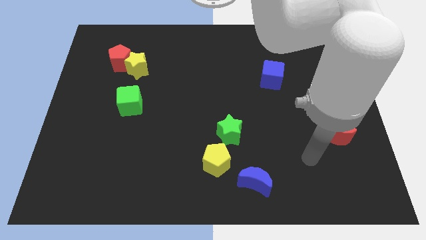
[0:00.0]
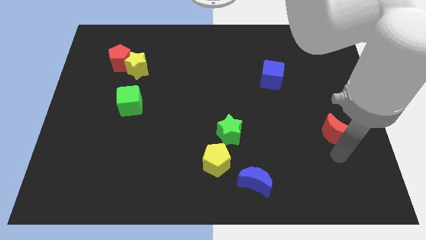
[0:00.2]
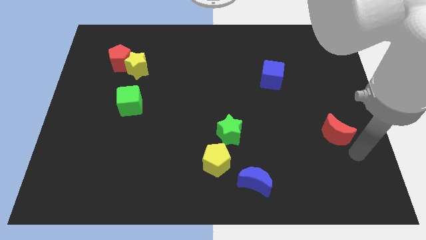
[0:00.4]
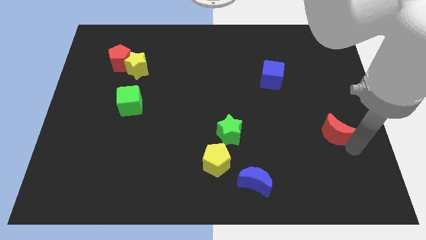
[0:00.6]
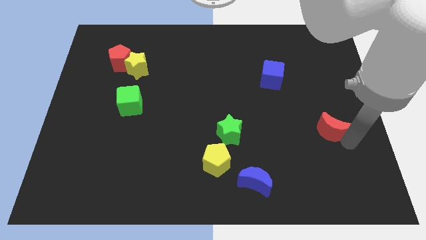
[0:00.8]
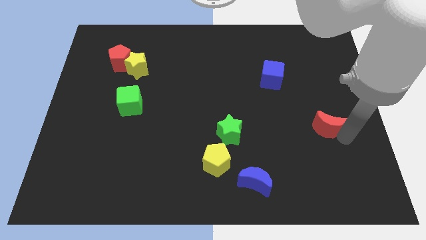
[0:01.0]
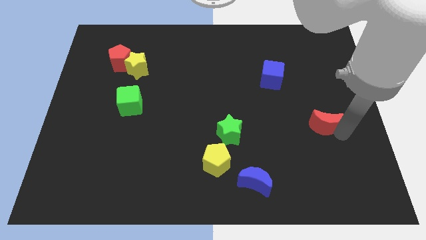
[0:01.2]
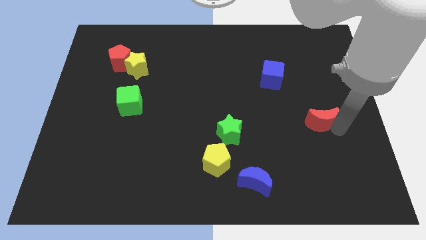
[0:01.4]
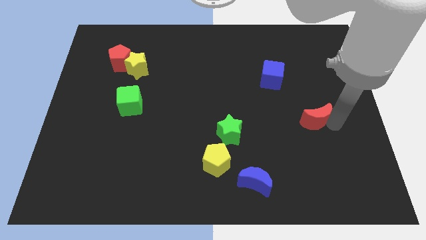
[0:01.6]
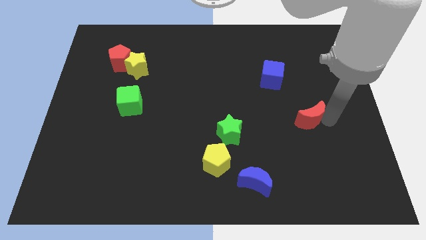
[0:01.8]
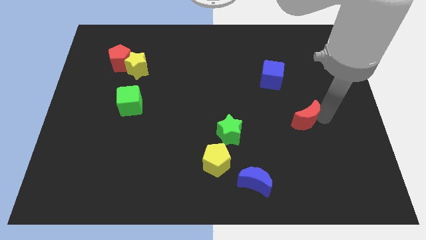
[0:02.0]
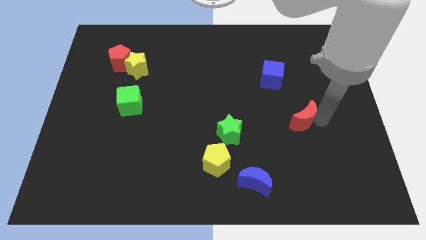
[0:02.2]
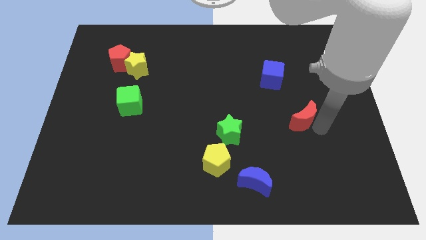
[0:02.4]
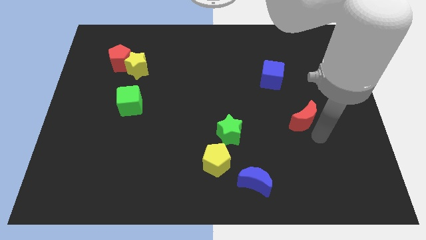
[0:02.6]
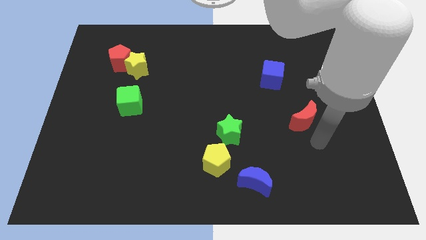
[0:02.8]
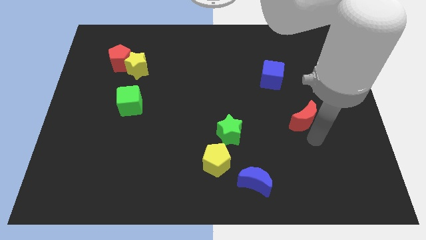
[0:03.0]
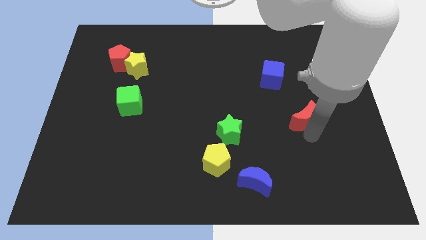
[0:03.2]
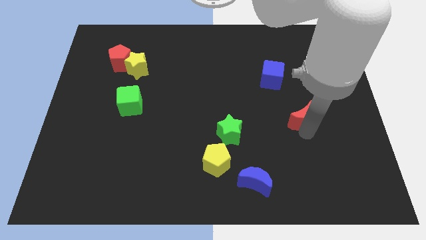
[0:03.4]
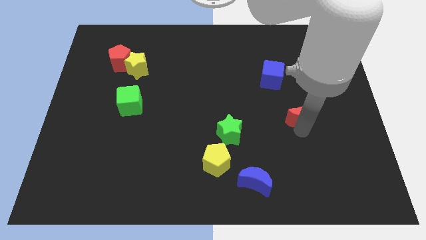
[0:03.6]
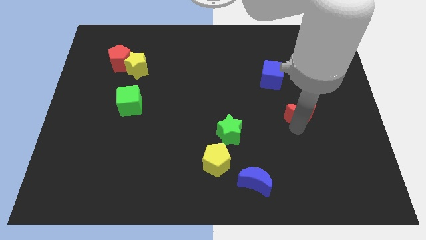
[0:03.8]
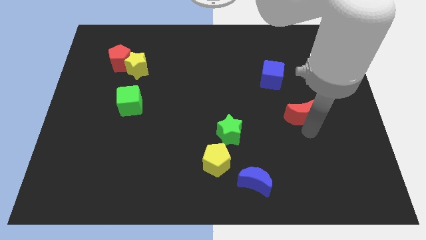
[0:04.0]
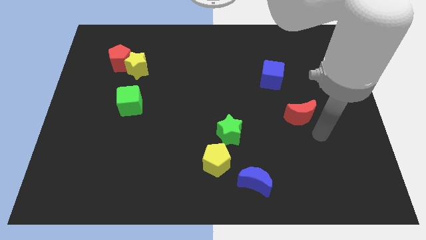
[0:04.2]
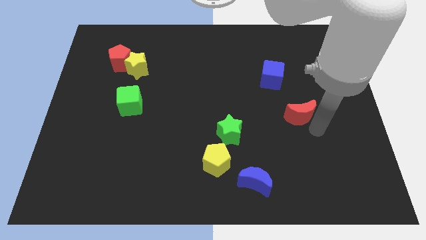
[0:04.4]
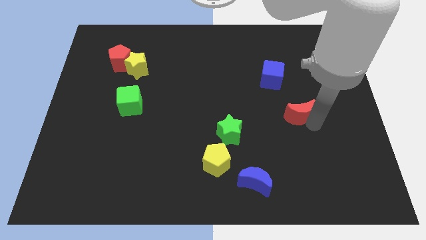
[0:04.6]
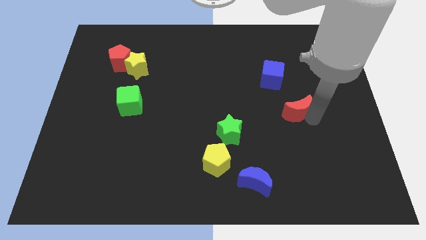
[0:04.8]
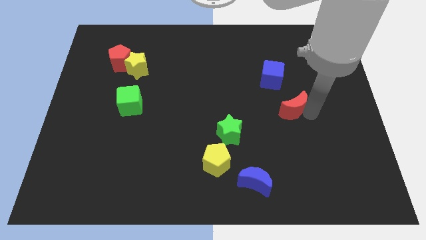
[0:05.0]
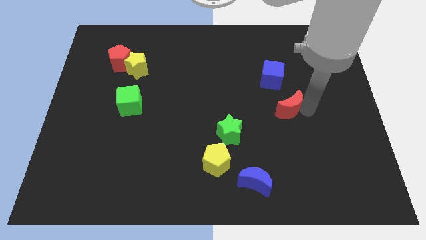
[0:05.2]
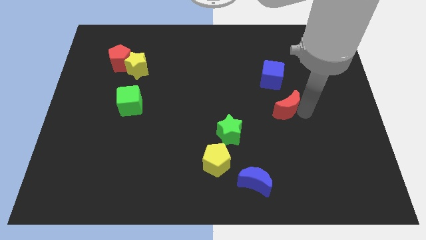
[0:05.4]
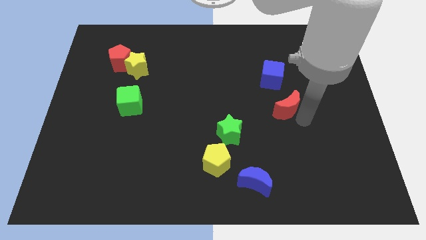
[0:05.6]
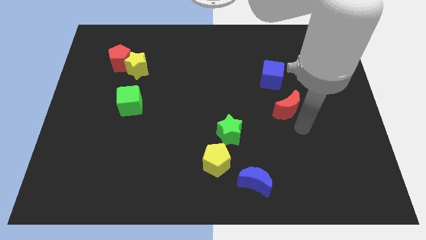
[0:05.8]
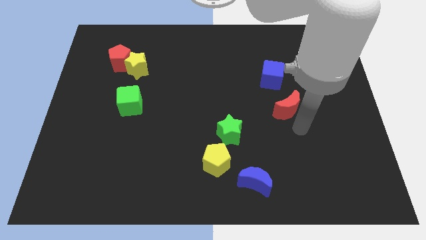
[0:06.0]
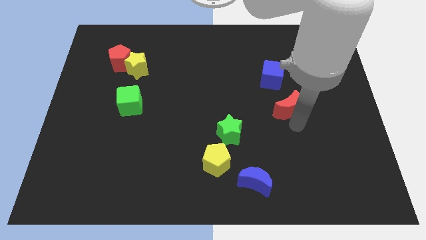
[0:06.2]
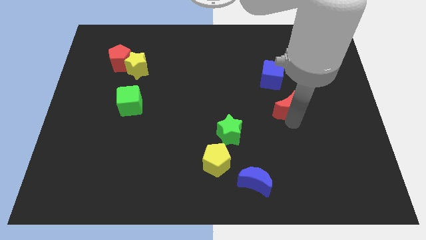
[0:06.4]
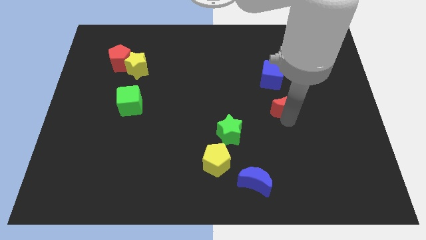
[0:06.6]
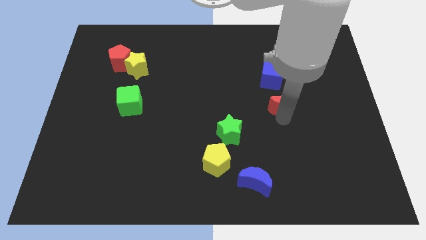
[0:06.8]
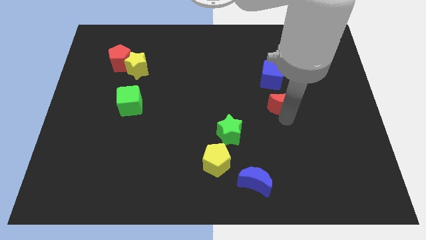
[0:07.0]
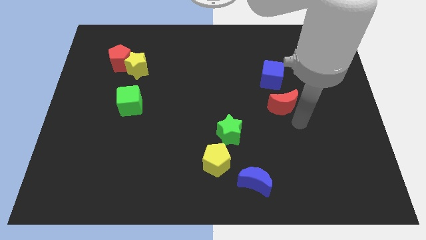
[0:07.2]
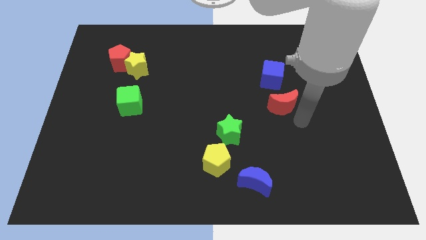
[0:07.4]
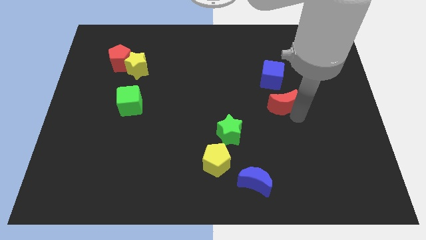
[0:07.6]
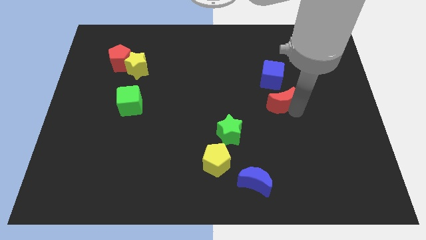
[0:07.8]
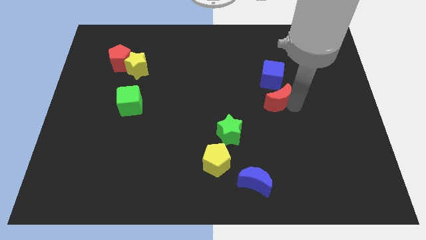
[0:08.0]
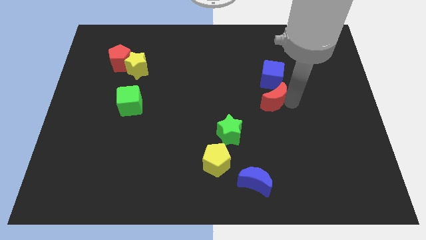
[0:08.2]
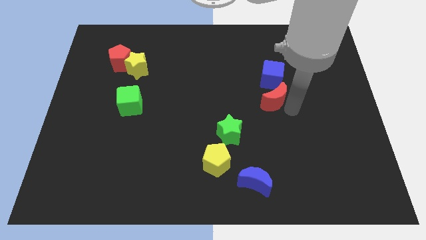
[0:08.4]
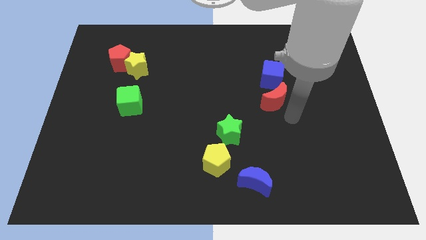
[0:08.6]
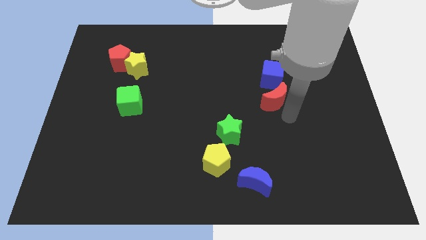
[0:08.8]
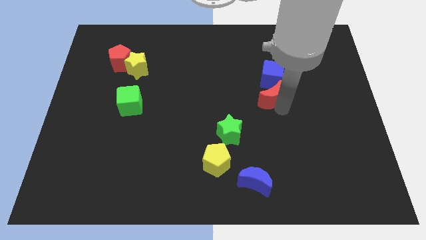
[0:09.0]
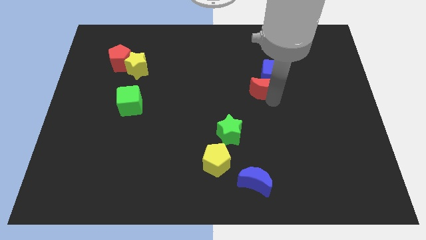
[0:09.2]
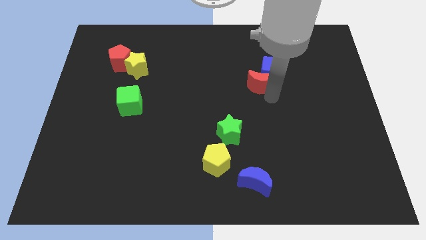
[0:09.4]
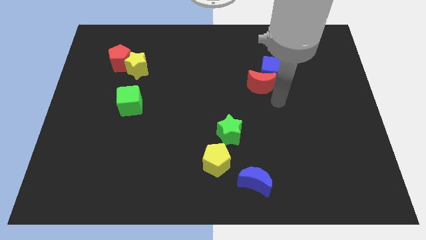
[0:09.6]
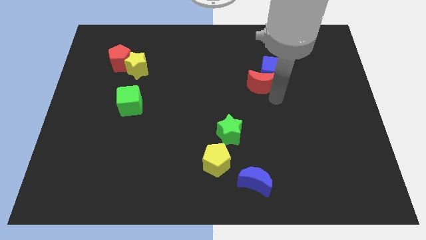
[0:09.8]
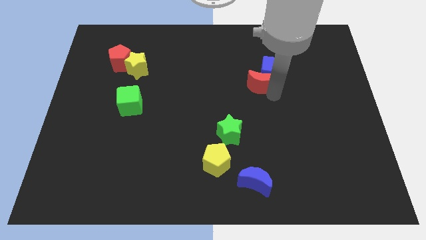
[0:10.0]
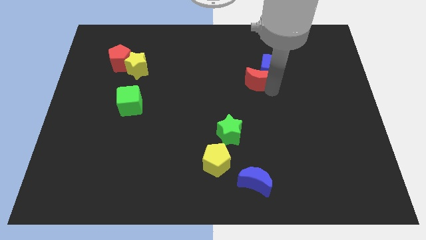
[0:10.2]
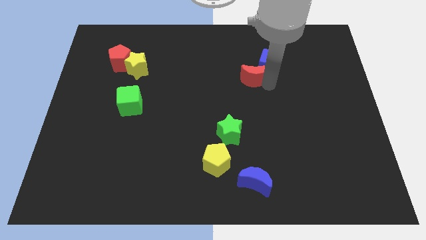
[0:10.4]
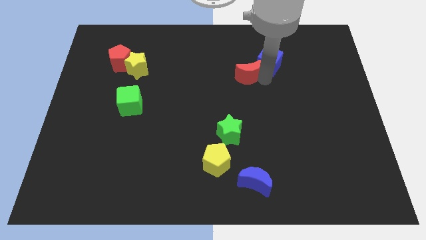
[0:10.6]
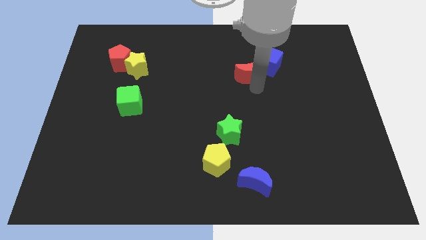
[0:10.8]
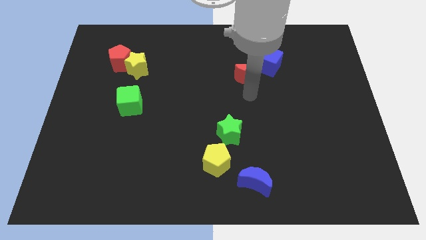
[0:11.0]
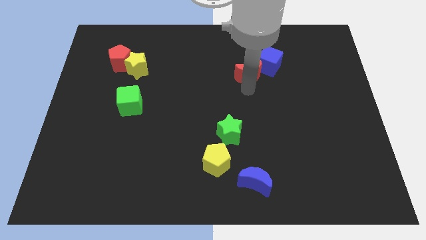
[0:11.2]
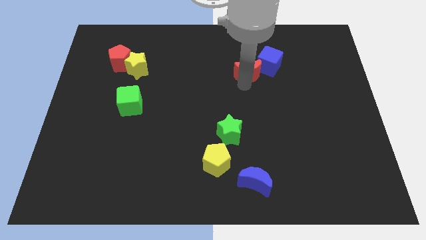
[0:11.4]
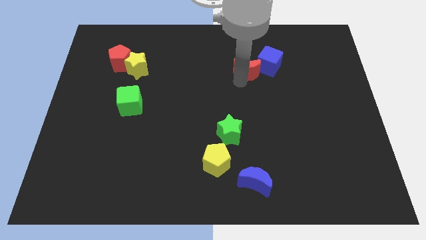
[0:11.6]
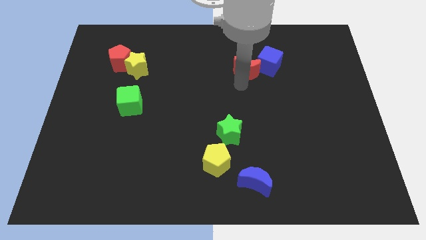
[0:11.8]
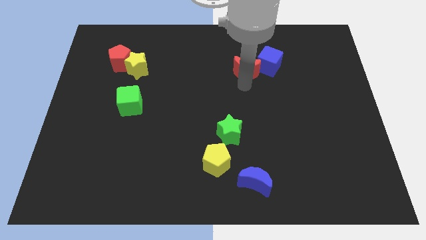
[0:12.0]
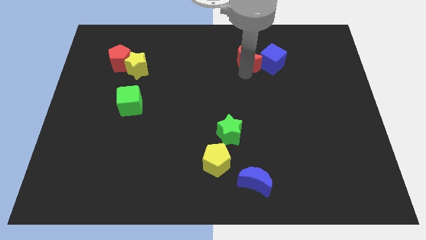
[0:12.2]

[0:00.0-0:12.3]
move the red moon to the top left of the blue cube

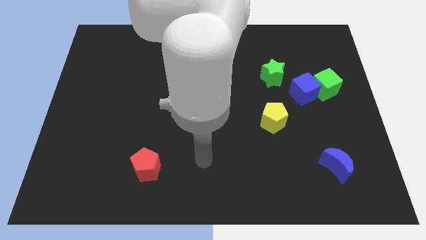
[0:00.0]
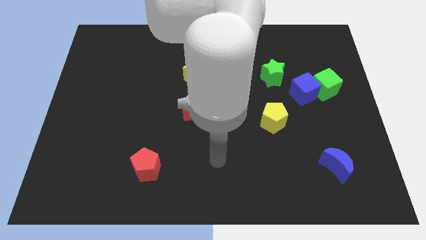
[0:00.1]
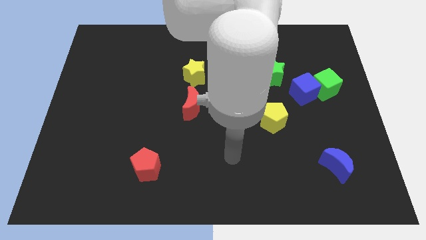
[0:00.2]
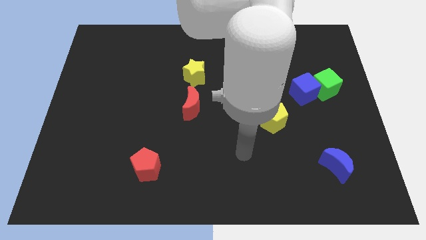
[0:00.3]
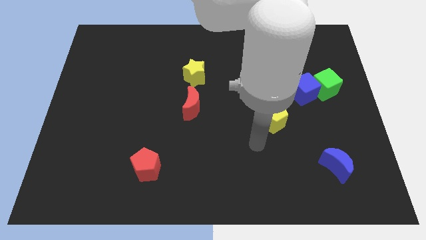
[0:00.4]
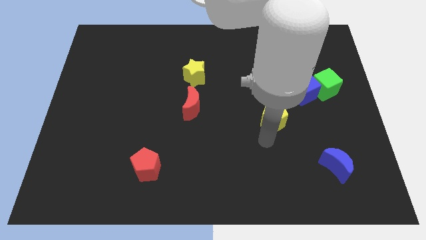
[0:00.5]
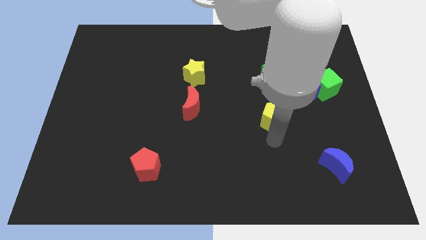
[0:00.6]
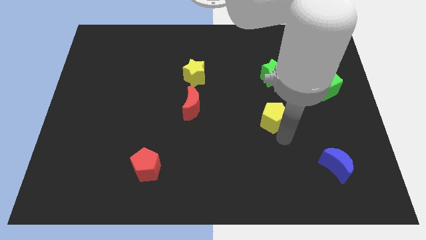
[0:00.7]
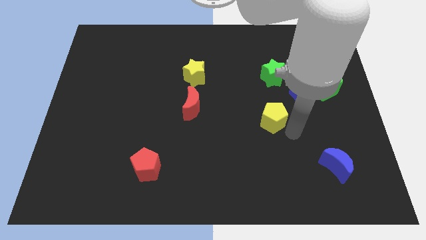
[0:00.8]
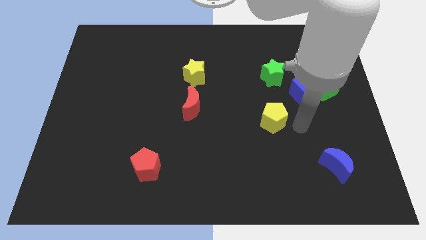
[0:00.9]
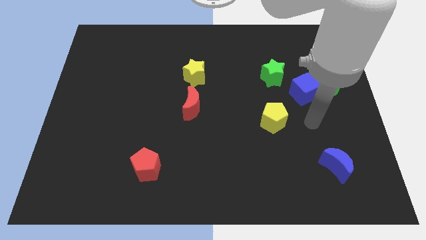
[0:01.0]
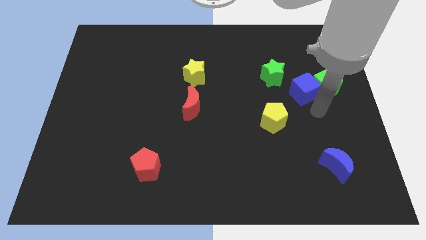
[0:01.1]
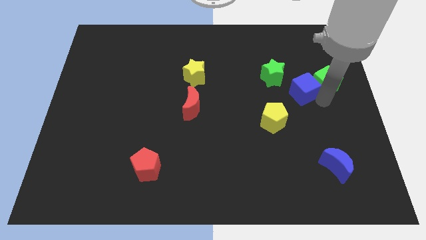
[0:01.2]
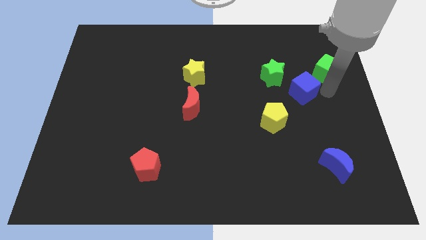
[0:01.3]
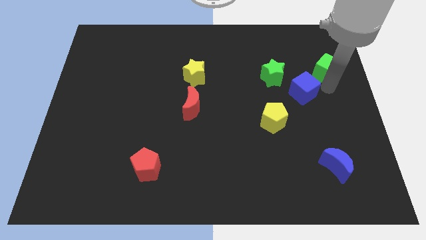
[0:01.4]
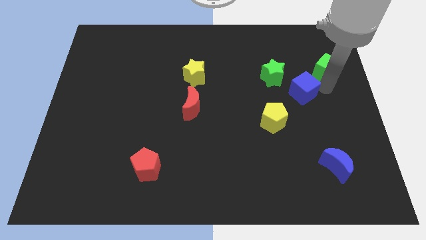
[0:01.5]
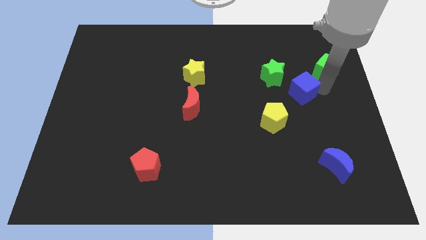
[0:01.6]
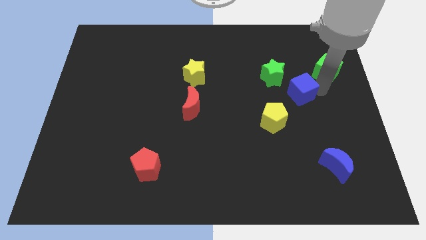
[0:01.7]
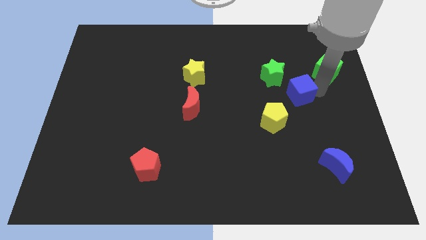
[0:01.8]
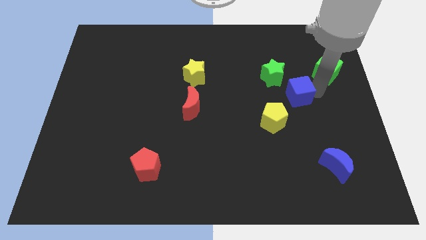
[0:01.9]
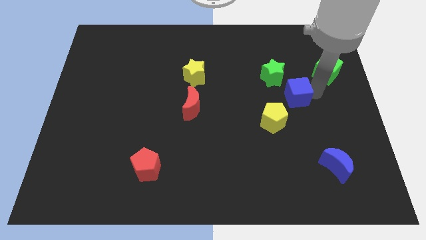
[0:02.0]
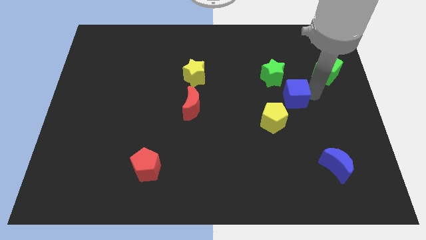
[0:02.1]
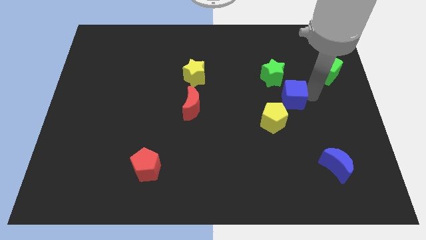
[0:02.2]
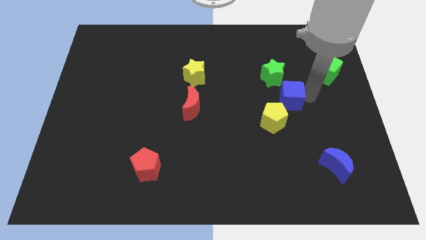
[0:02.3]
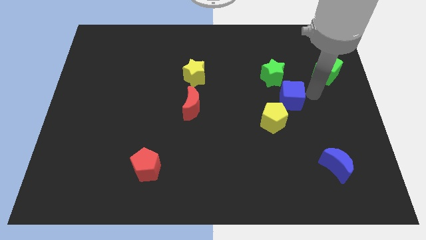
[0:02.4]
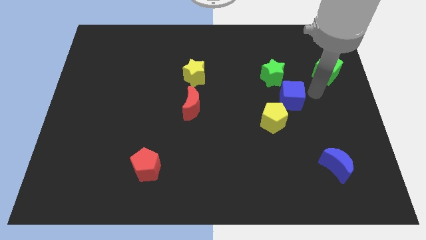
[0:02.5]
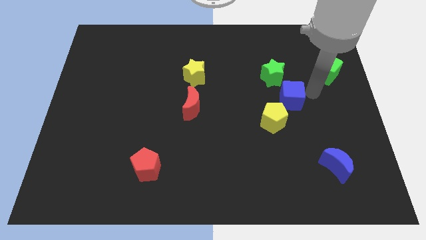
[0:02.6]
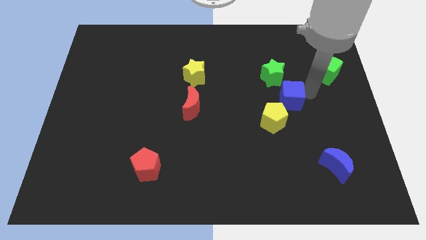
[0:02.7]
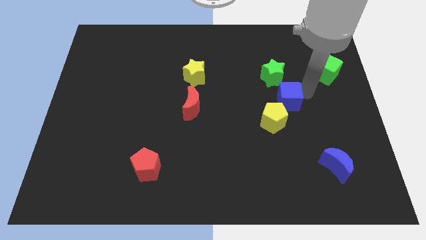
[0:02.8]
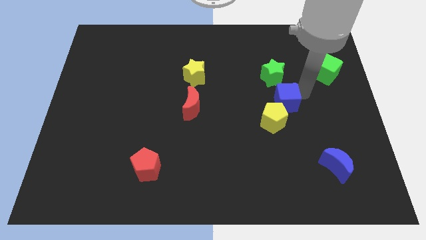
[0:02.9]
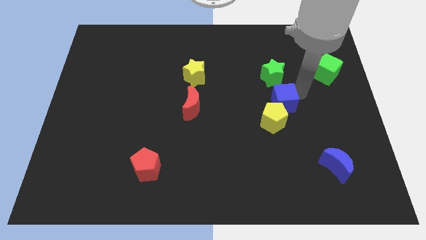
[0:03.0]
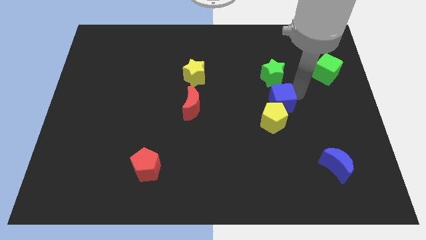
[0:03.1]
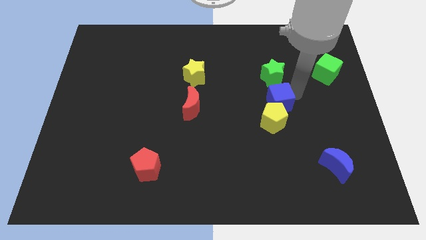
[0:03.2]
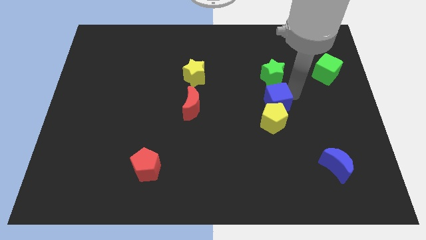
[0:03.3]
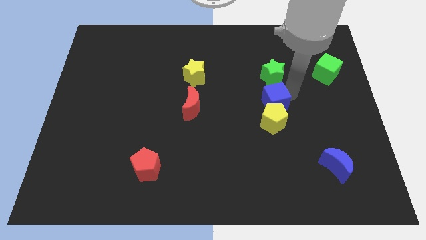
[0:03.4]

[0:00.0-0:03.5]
push the blue cube to the top left of the yellow pentagon
